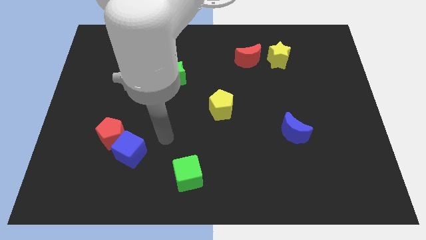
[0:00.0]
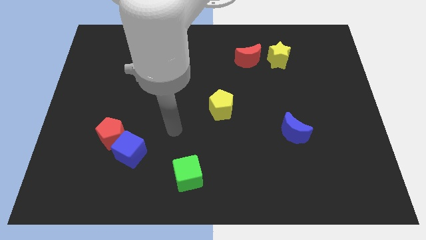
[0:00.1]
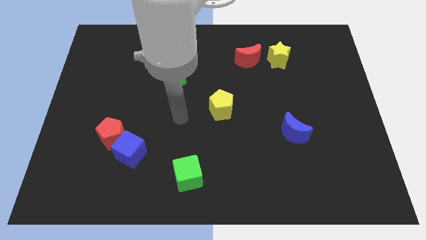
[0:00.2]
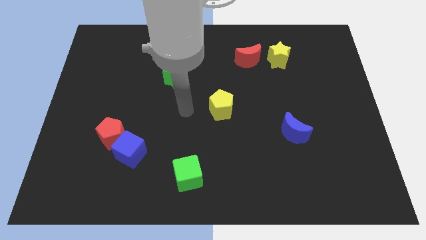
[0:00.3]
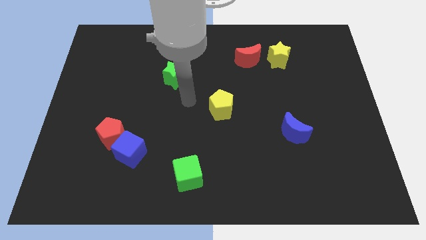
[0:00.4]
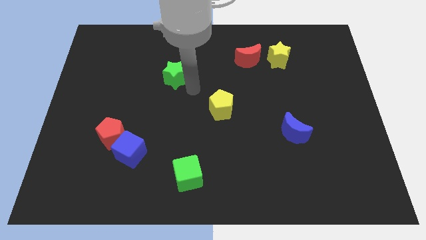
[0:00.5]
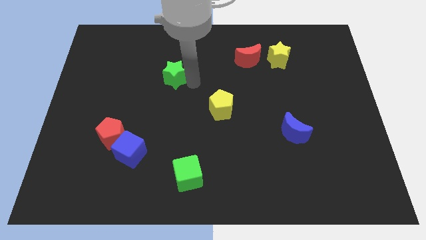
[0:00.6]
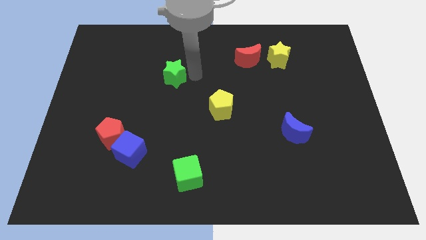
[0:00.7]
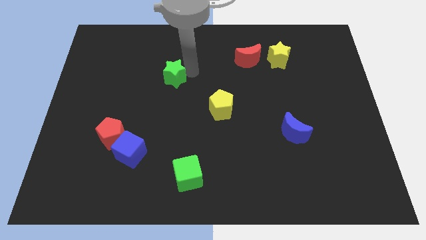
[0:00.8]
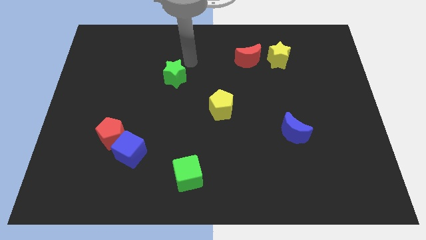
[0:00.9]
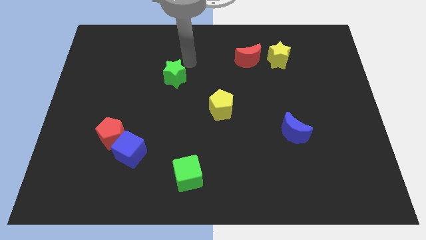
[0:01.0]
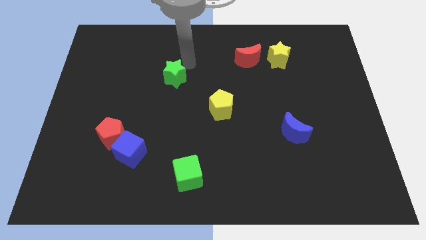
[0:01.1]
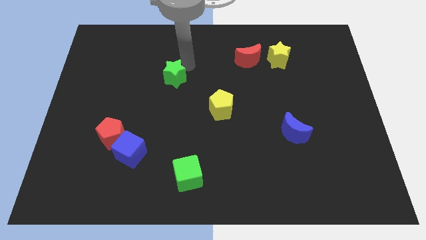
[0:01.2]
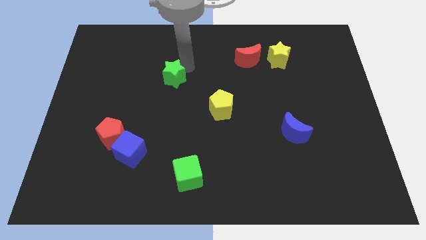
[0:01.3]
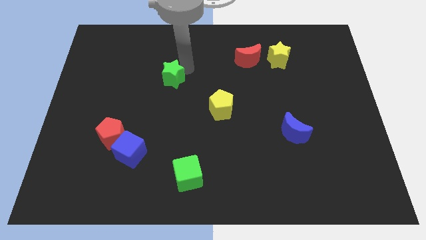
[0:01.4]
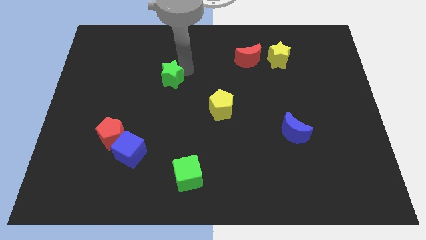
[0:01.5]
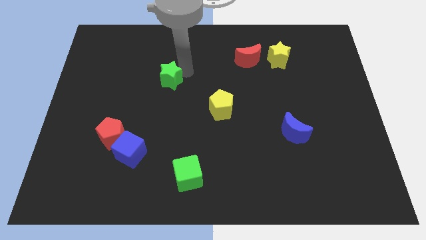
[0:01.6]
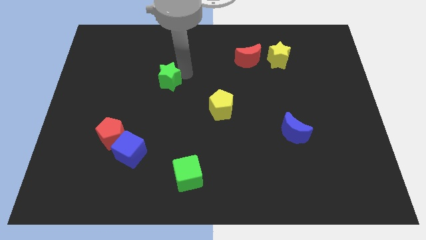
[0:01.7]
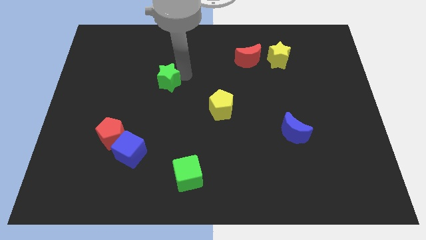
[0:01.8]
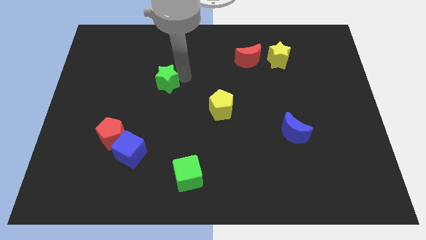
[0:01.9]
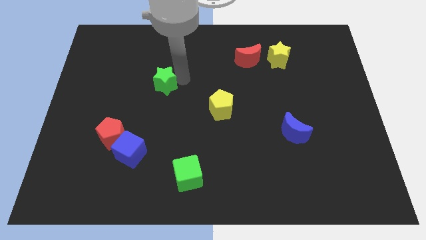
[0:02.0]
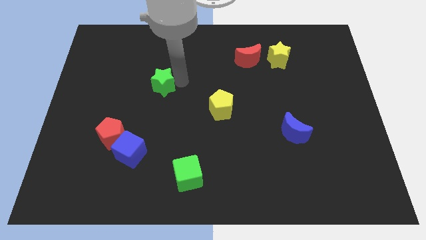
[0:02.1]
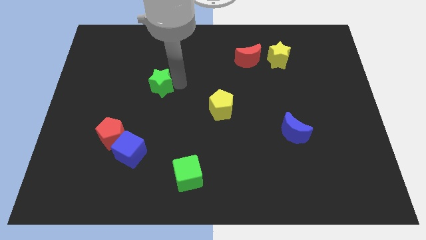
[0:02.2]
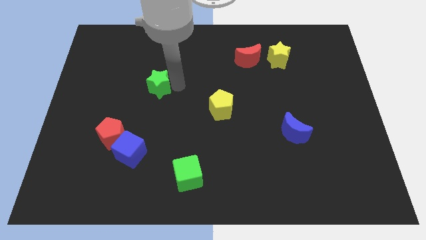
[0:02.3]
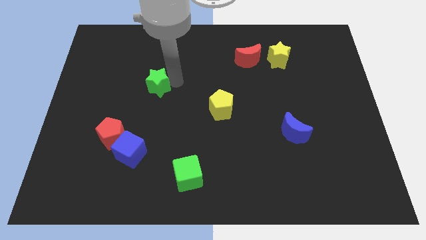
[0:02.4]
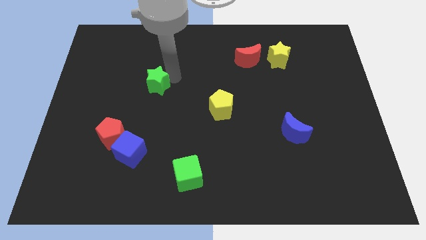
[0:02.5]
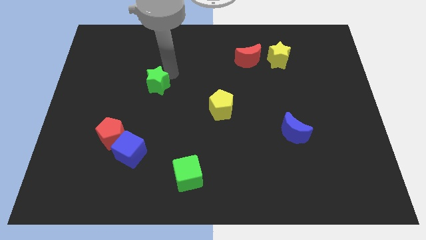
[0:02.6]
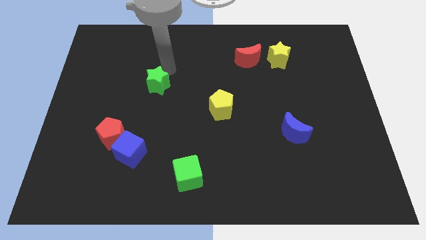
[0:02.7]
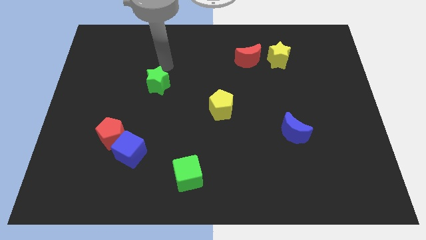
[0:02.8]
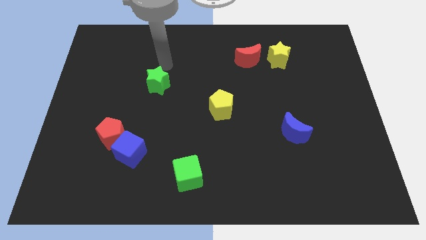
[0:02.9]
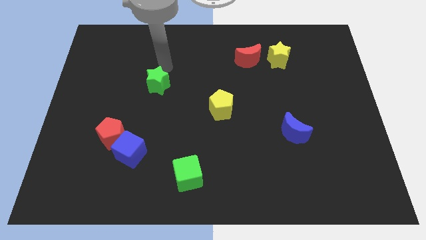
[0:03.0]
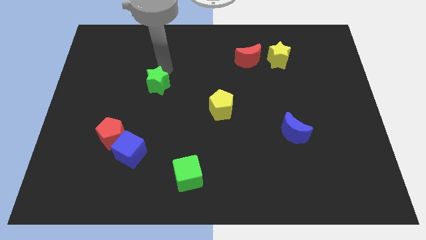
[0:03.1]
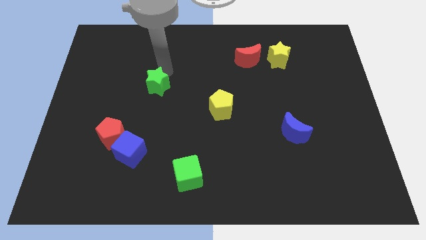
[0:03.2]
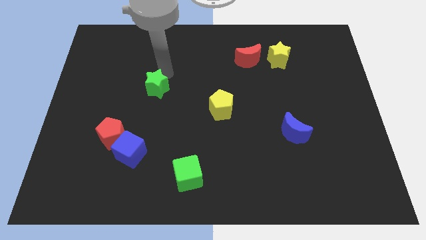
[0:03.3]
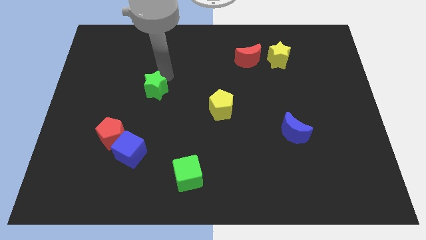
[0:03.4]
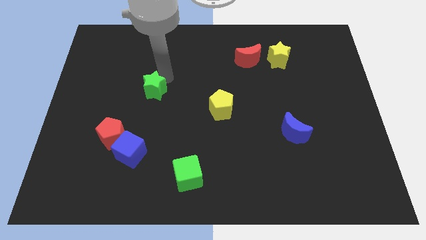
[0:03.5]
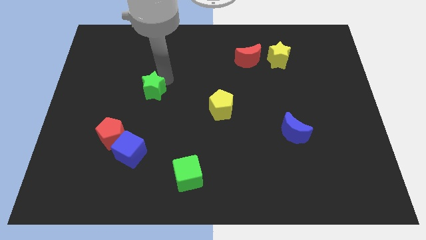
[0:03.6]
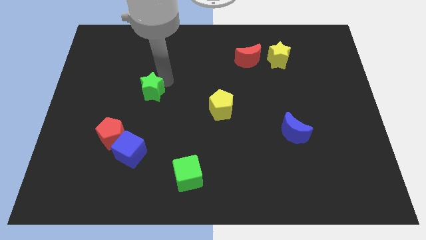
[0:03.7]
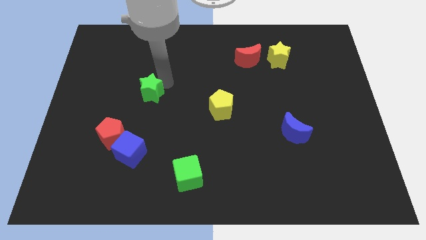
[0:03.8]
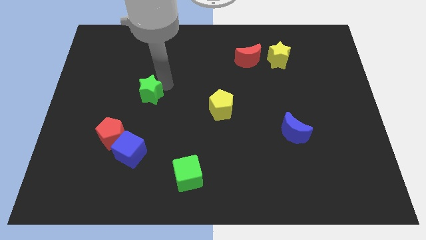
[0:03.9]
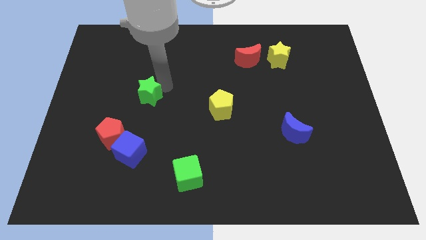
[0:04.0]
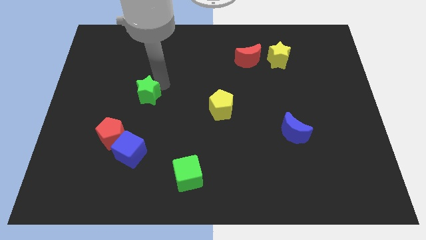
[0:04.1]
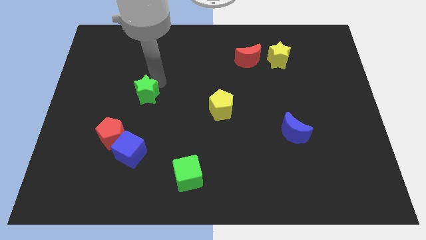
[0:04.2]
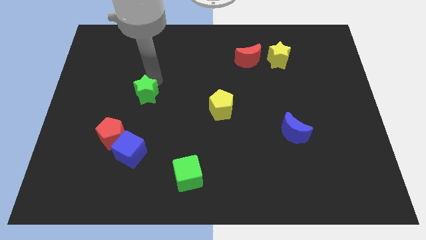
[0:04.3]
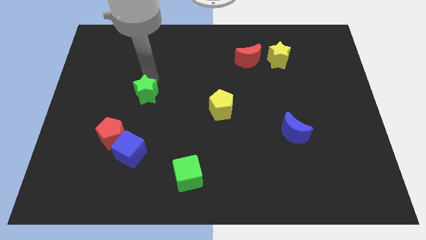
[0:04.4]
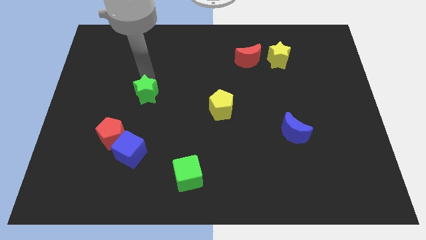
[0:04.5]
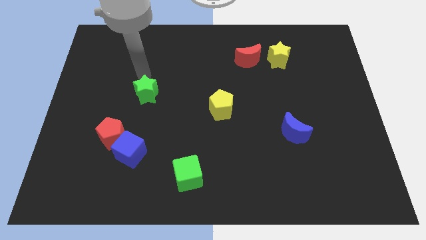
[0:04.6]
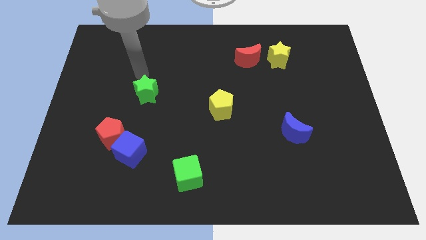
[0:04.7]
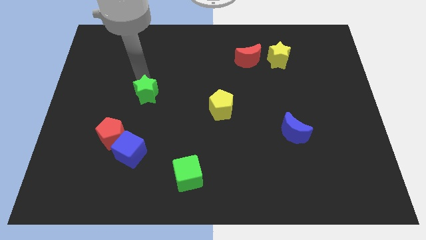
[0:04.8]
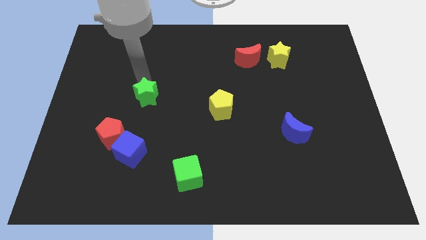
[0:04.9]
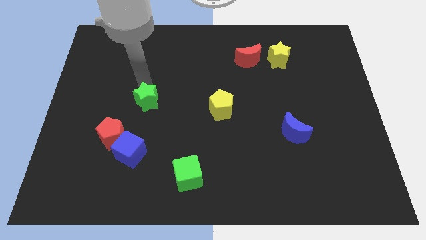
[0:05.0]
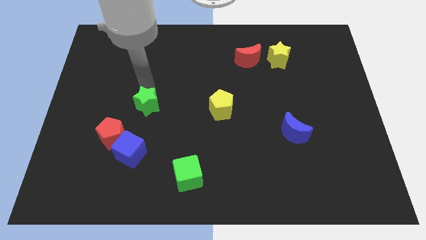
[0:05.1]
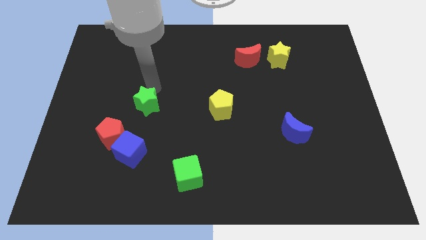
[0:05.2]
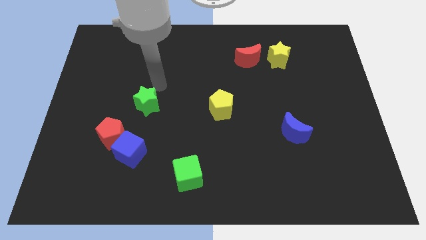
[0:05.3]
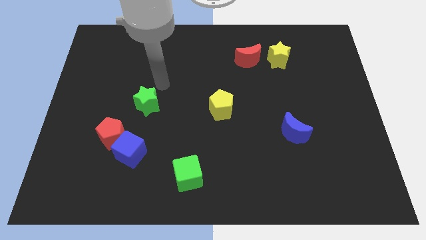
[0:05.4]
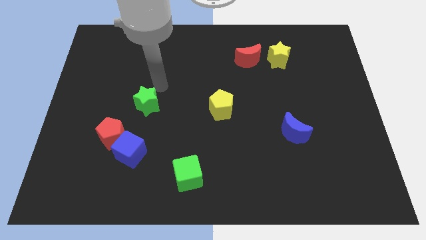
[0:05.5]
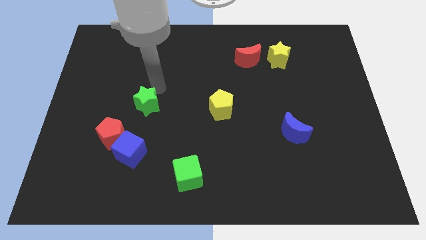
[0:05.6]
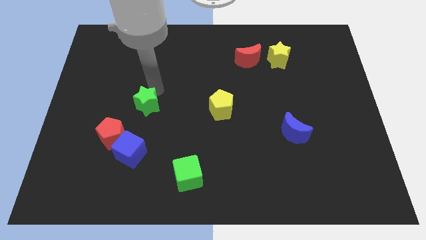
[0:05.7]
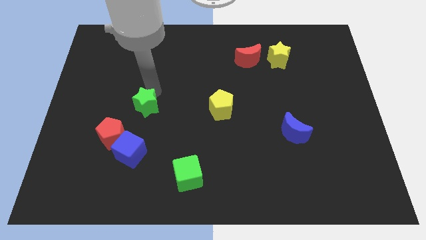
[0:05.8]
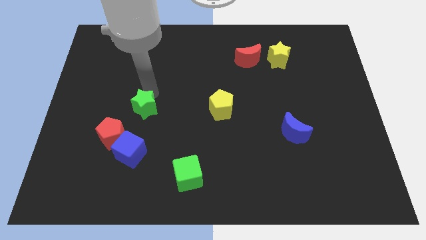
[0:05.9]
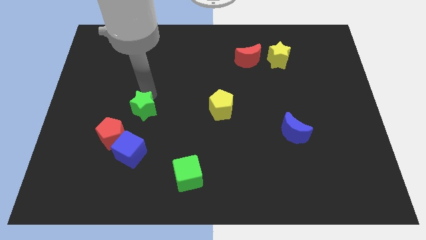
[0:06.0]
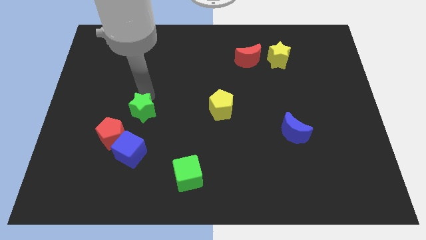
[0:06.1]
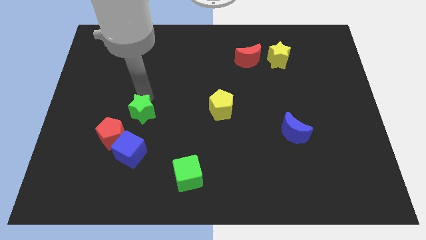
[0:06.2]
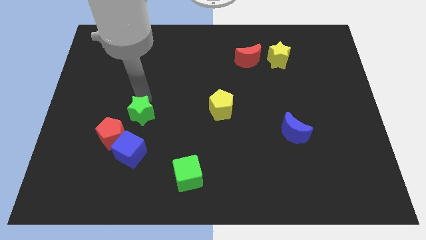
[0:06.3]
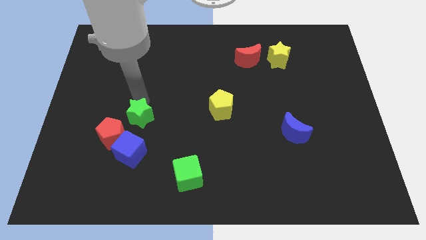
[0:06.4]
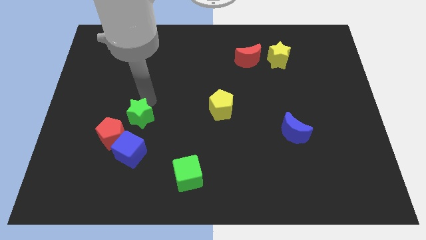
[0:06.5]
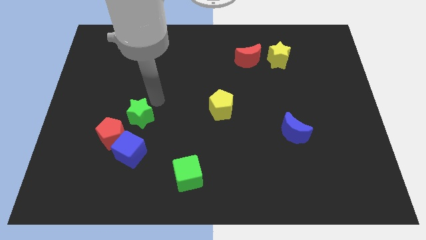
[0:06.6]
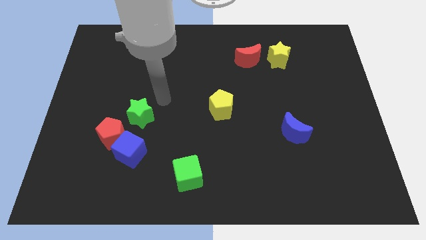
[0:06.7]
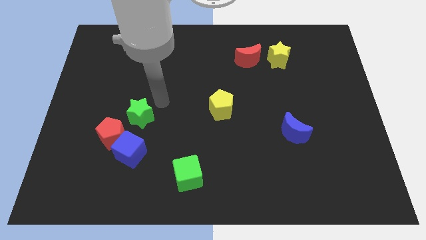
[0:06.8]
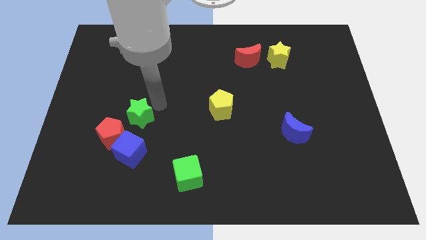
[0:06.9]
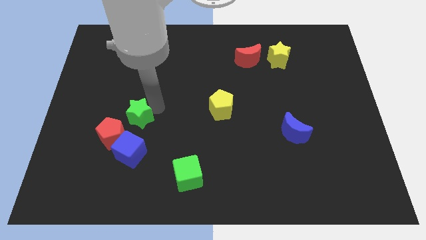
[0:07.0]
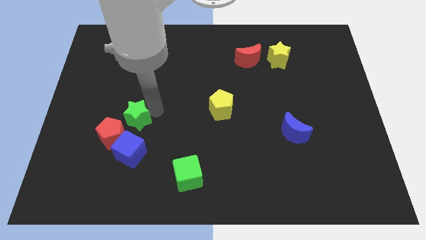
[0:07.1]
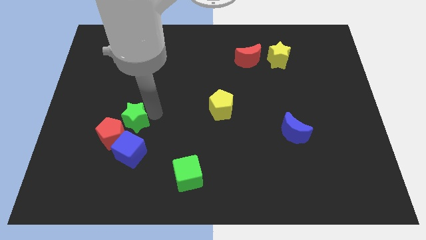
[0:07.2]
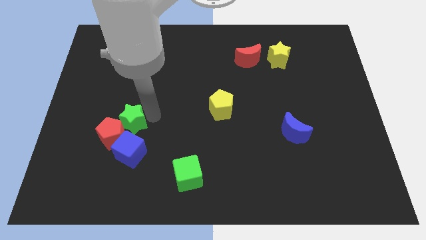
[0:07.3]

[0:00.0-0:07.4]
put the green star towards the red pentagon

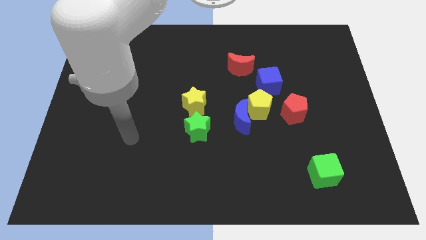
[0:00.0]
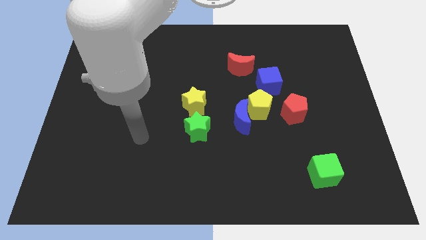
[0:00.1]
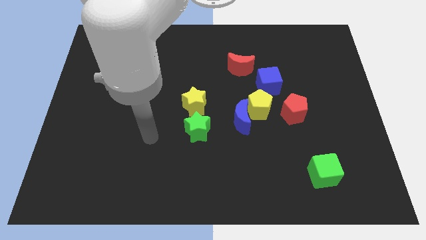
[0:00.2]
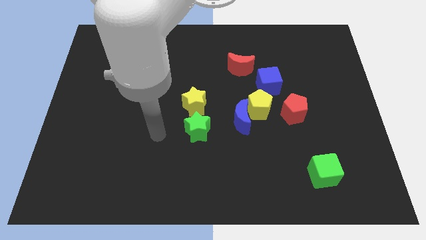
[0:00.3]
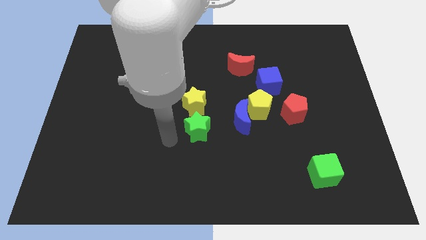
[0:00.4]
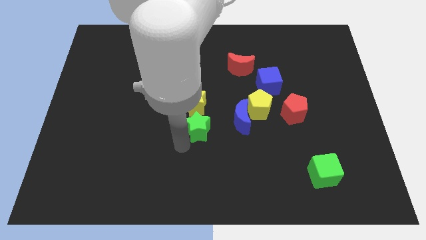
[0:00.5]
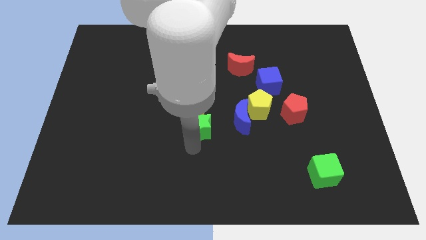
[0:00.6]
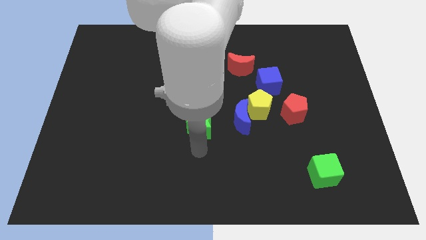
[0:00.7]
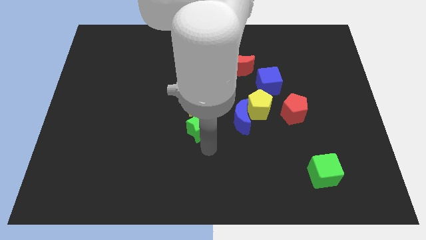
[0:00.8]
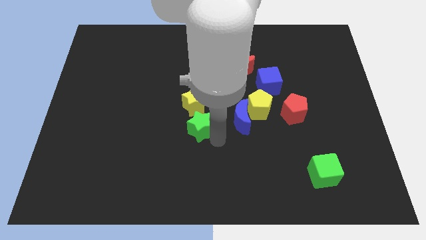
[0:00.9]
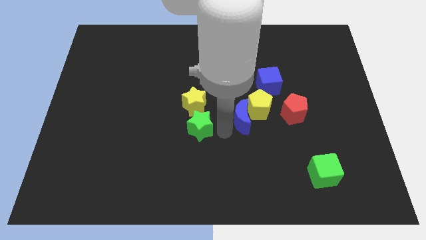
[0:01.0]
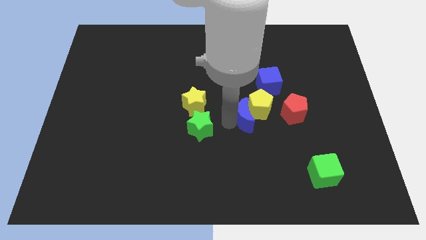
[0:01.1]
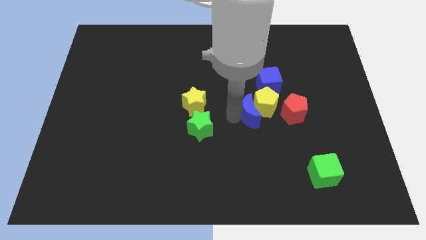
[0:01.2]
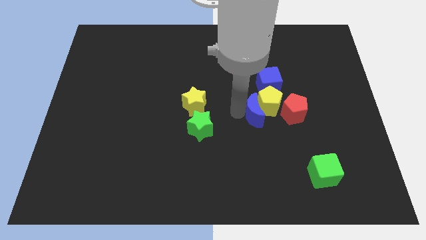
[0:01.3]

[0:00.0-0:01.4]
put the yellow pentagon next to the red pentagon

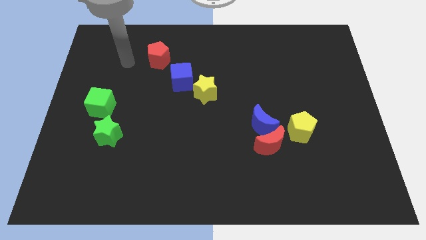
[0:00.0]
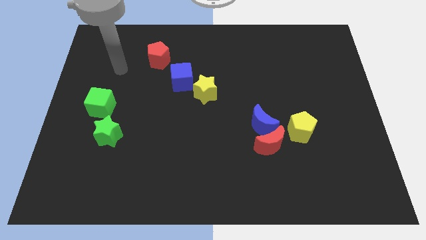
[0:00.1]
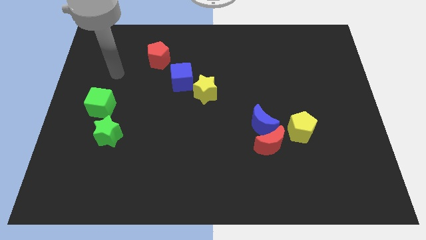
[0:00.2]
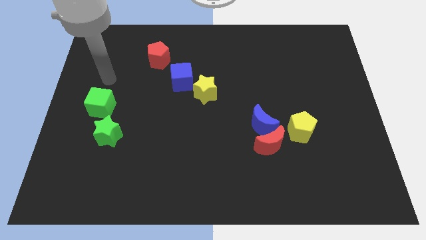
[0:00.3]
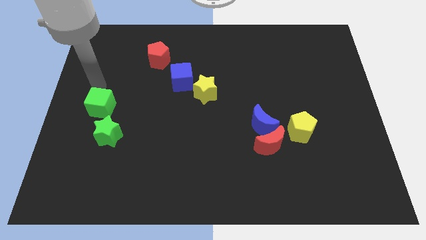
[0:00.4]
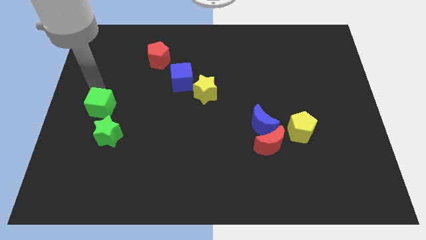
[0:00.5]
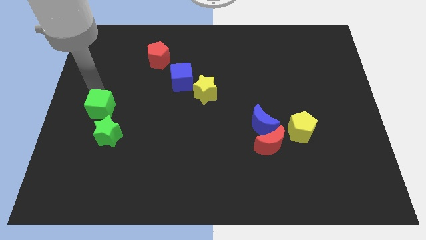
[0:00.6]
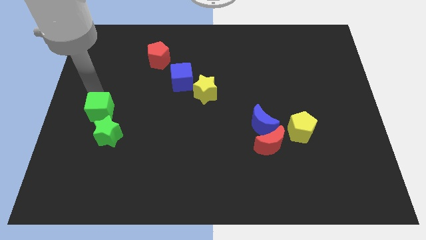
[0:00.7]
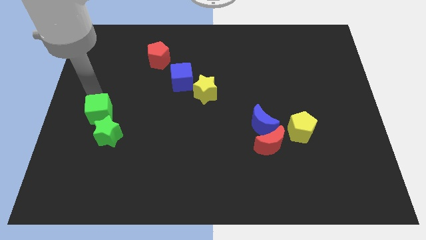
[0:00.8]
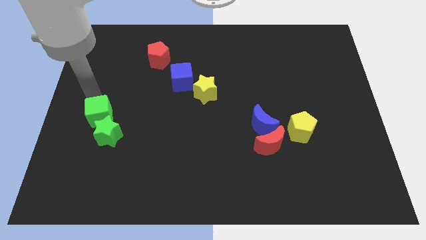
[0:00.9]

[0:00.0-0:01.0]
slide the green cube to the green star
